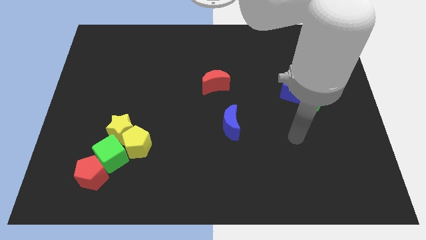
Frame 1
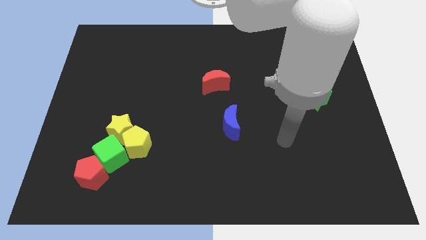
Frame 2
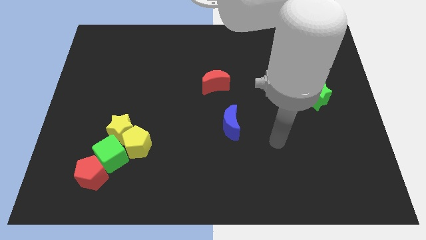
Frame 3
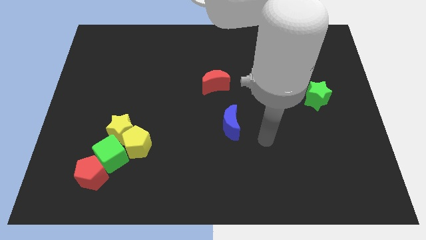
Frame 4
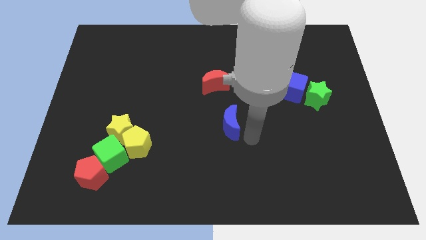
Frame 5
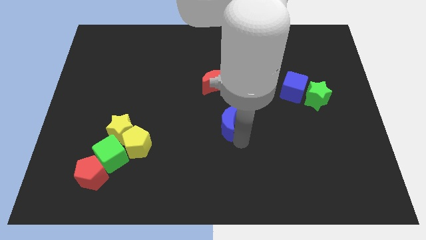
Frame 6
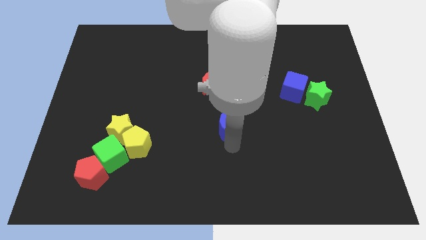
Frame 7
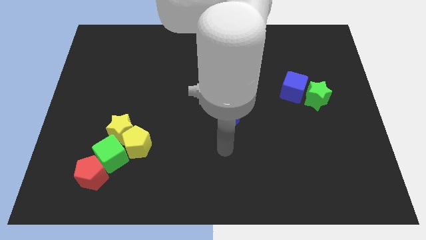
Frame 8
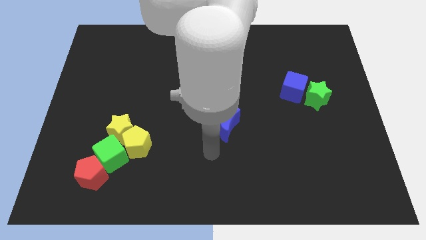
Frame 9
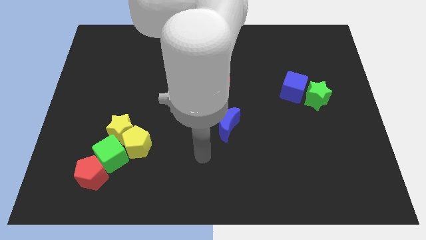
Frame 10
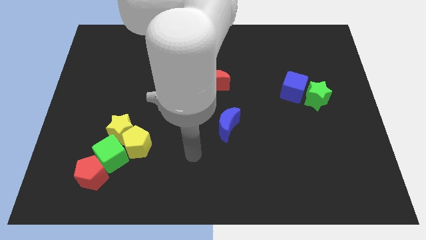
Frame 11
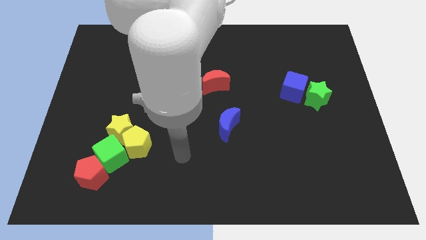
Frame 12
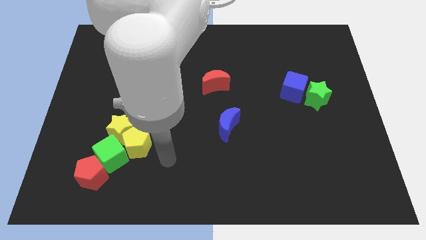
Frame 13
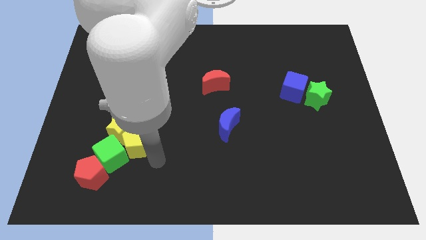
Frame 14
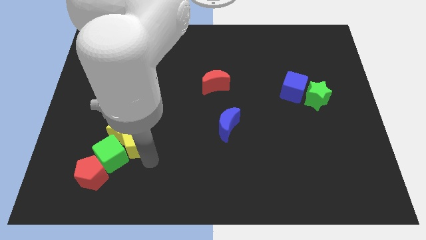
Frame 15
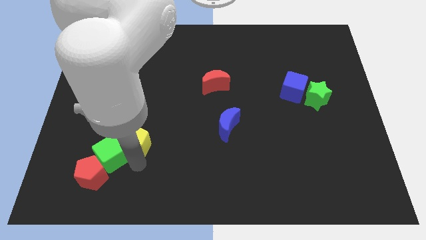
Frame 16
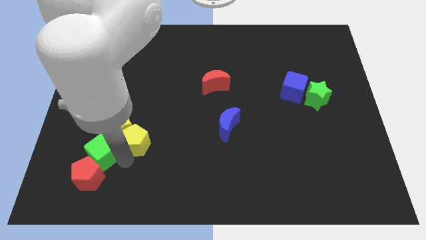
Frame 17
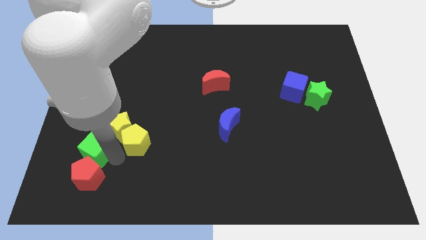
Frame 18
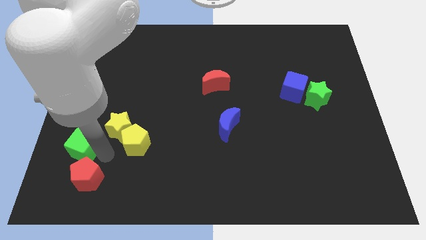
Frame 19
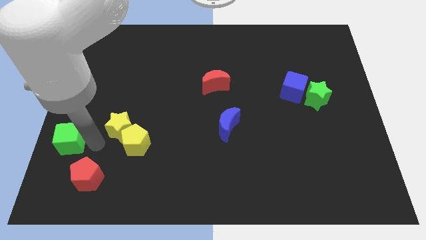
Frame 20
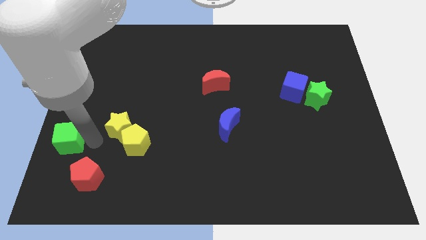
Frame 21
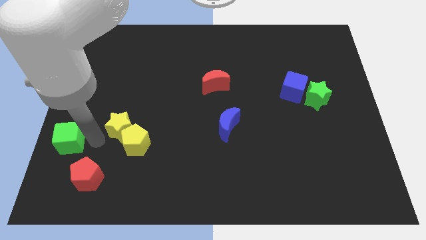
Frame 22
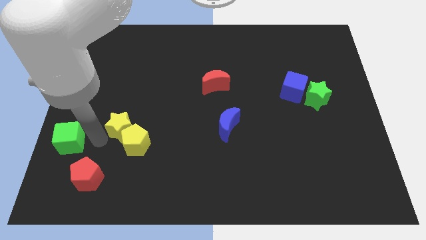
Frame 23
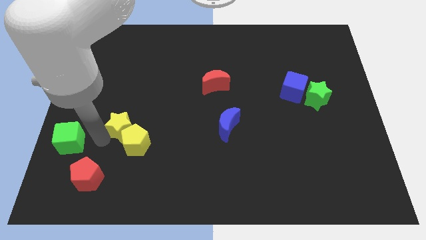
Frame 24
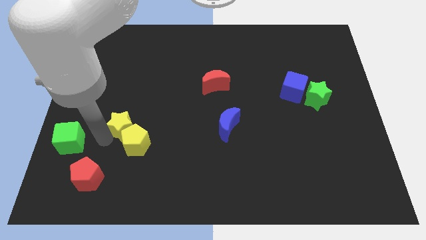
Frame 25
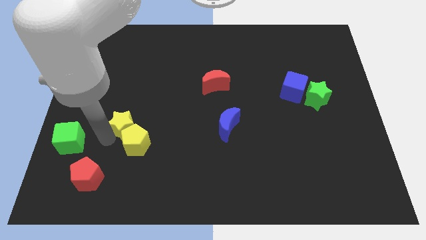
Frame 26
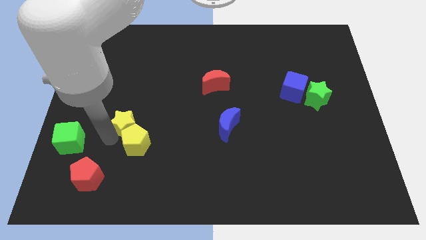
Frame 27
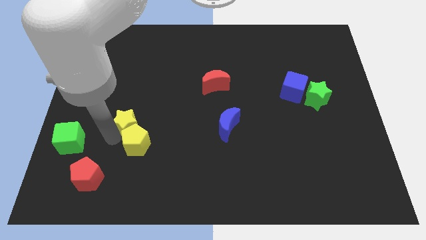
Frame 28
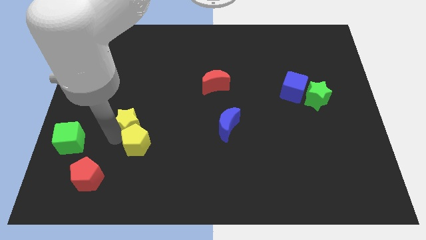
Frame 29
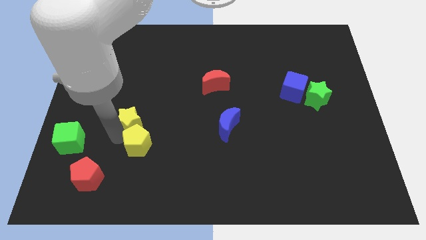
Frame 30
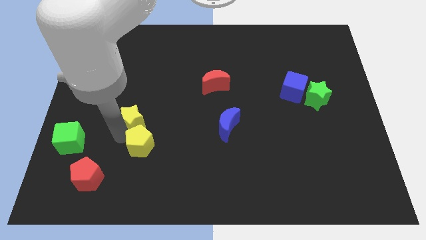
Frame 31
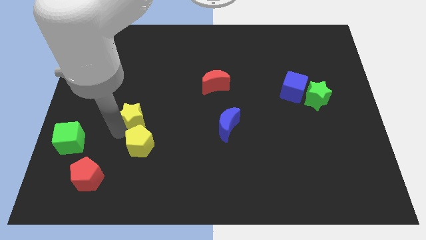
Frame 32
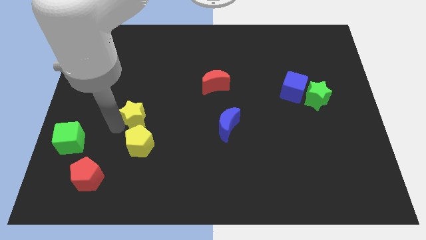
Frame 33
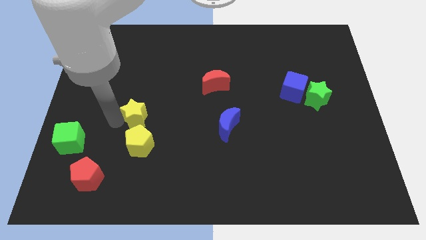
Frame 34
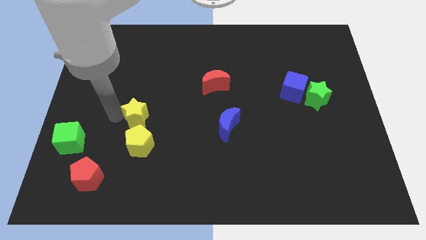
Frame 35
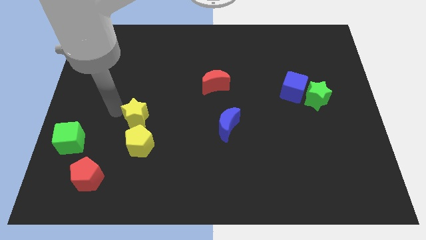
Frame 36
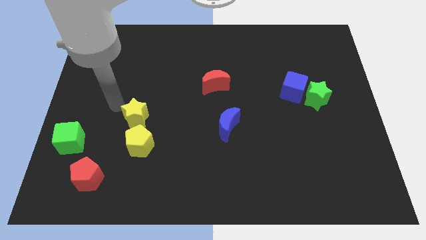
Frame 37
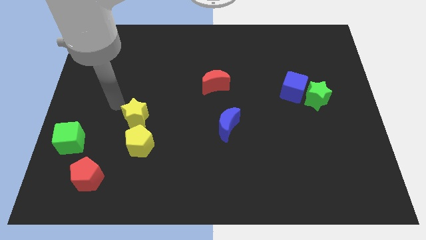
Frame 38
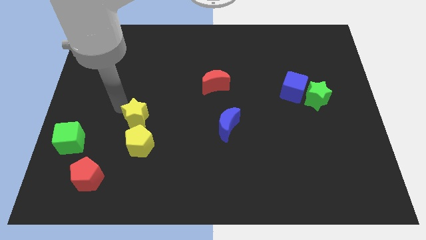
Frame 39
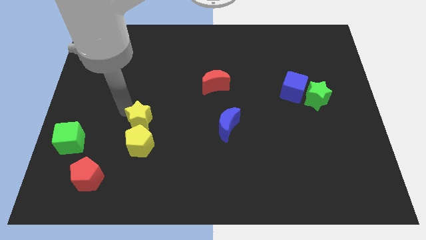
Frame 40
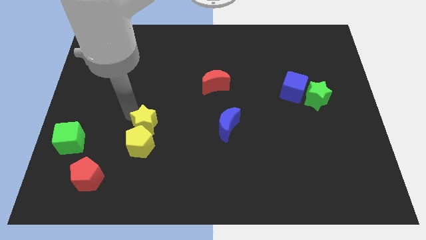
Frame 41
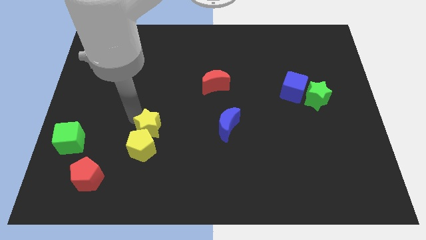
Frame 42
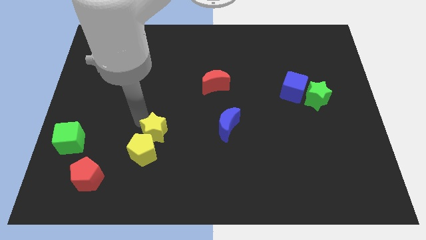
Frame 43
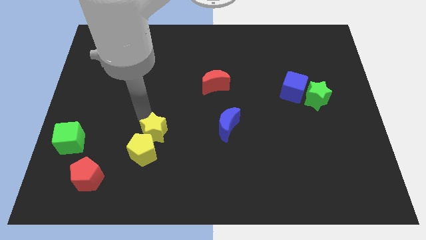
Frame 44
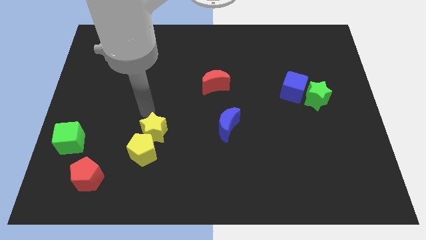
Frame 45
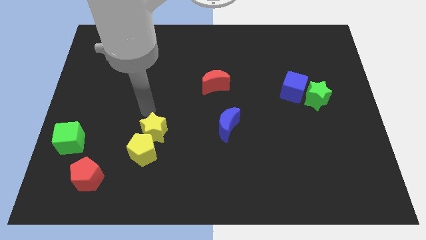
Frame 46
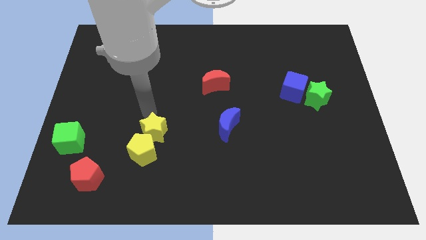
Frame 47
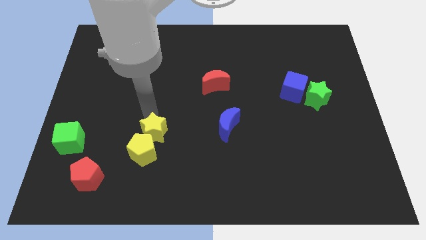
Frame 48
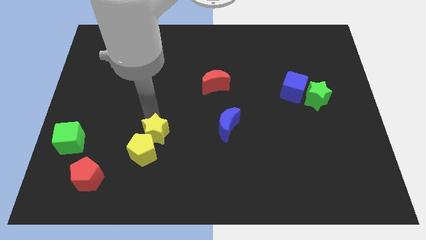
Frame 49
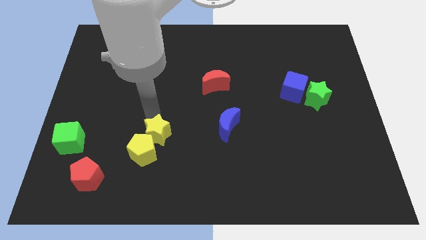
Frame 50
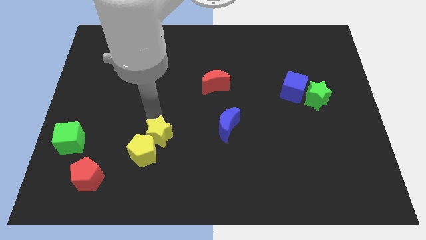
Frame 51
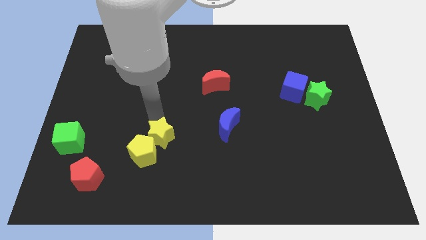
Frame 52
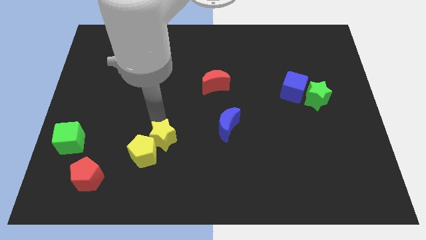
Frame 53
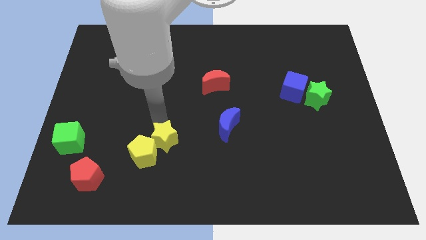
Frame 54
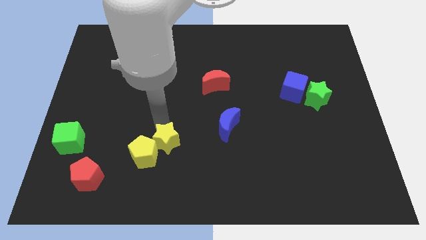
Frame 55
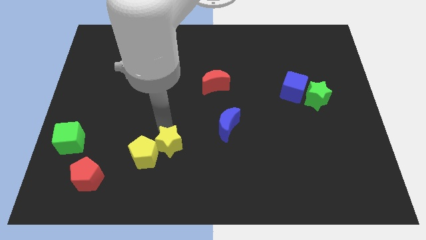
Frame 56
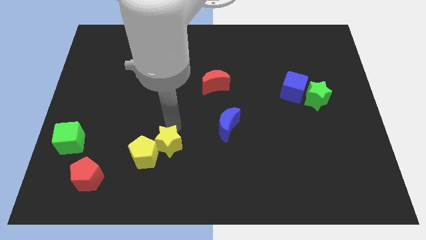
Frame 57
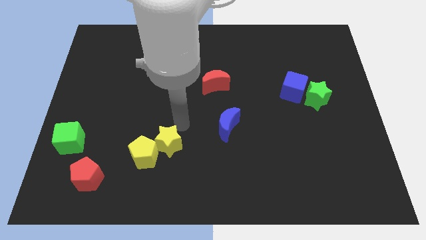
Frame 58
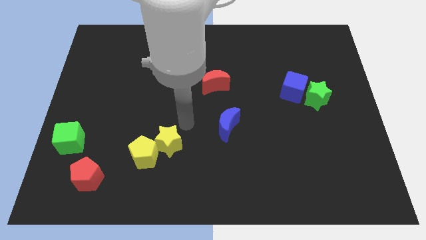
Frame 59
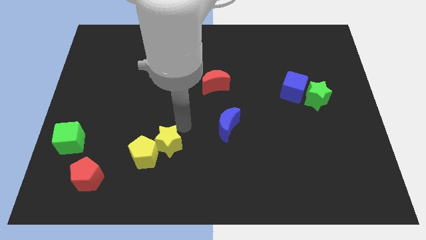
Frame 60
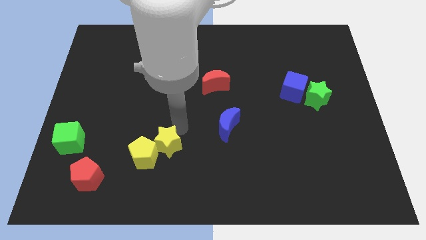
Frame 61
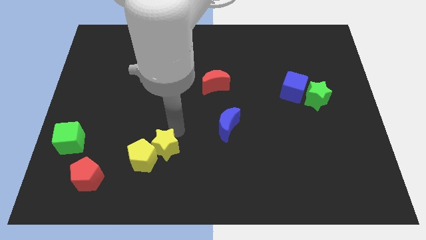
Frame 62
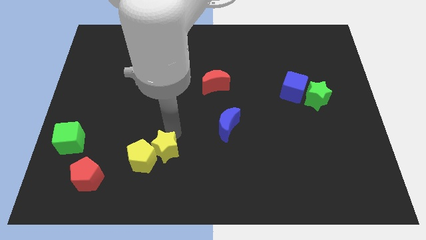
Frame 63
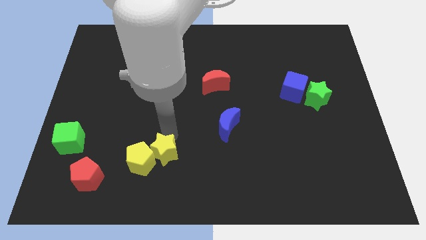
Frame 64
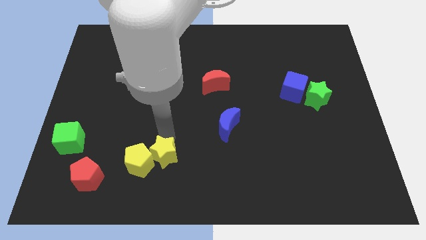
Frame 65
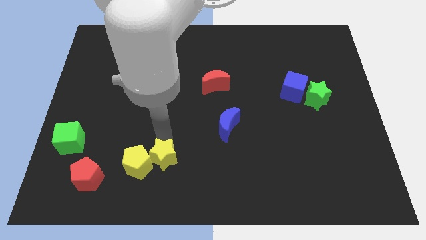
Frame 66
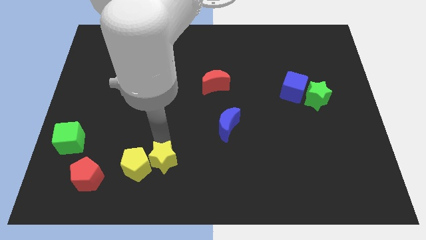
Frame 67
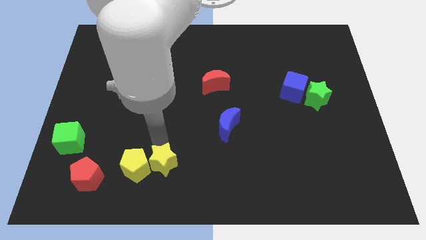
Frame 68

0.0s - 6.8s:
push the yellow star to the right of the red pentagon
